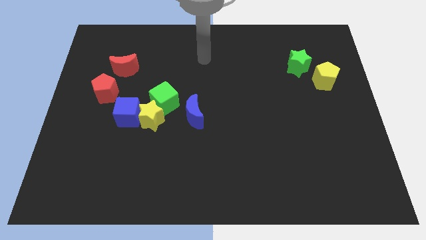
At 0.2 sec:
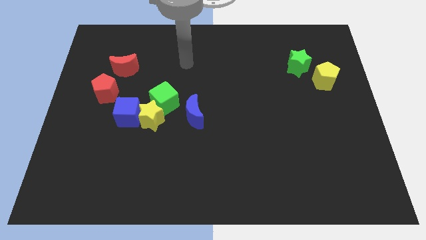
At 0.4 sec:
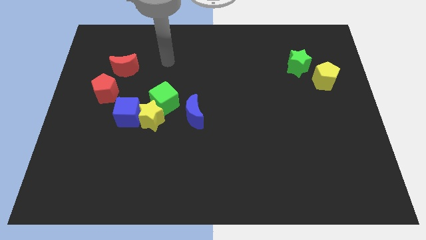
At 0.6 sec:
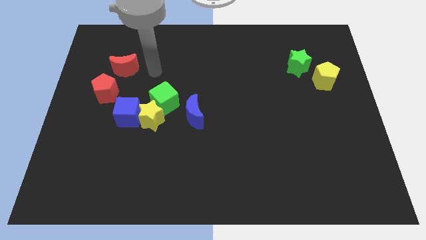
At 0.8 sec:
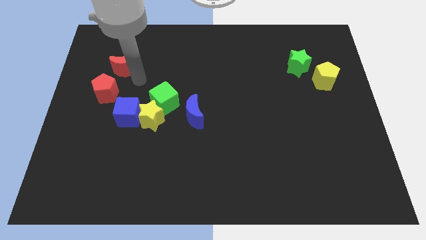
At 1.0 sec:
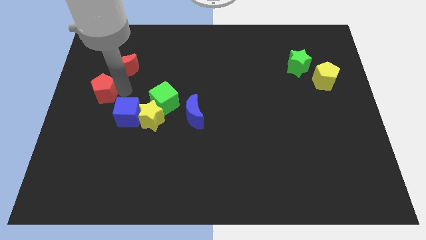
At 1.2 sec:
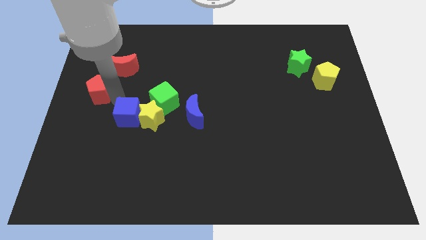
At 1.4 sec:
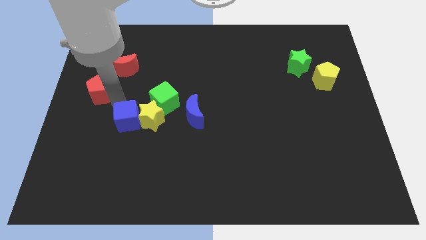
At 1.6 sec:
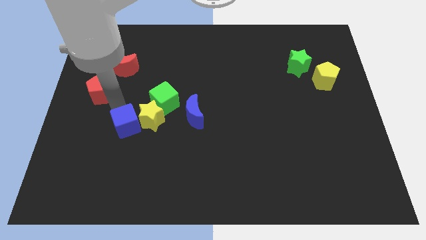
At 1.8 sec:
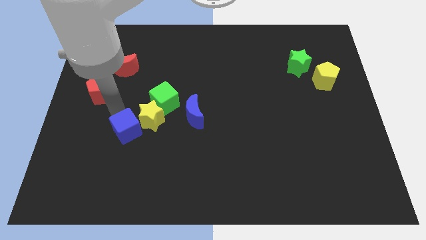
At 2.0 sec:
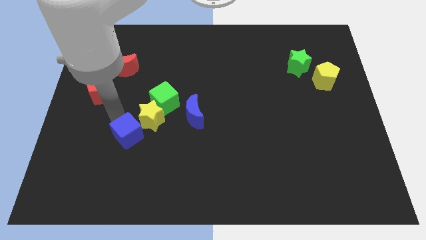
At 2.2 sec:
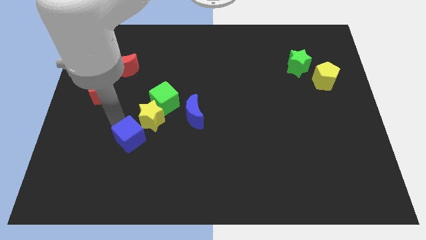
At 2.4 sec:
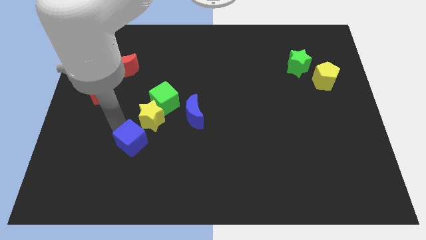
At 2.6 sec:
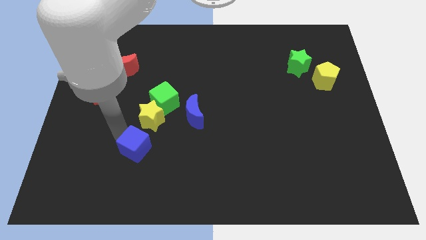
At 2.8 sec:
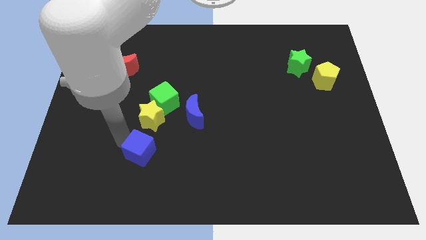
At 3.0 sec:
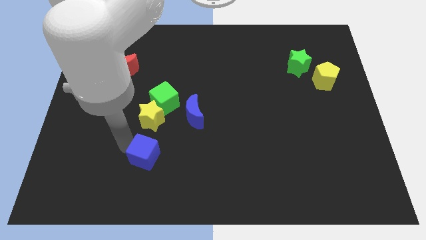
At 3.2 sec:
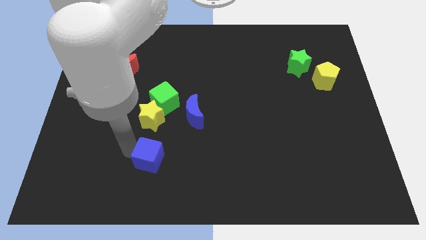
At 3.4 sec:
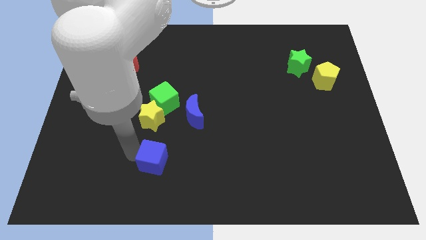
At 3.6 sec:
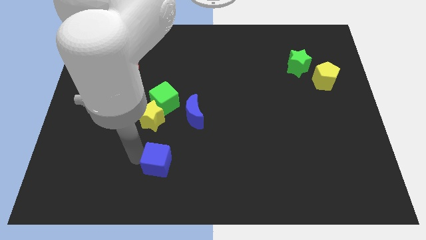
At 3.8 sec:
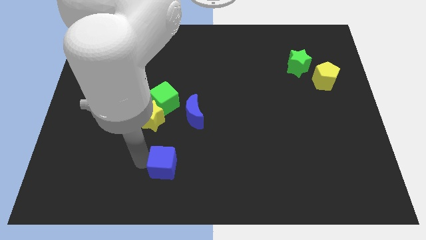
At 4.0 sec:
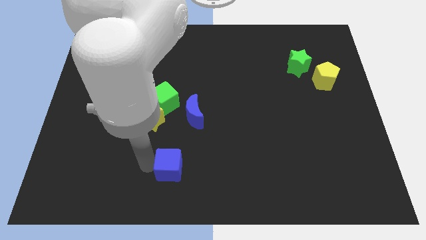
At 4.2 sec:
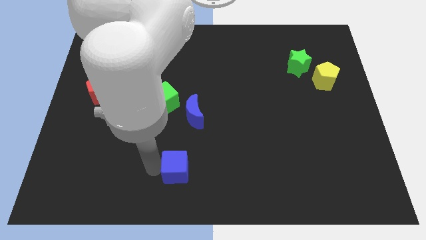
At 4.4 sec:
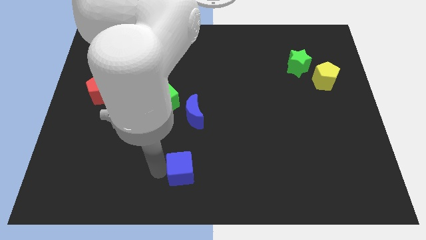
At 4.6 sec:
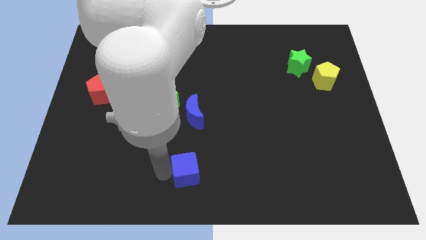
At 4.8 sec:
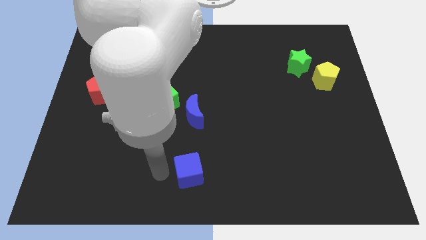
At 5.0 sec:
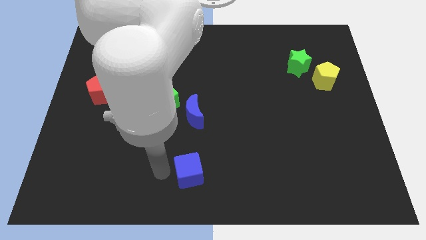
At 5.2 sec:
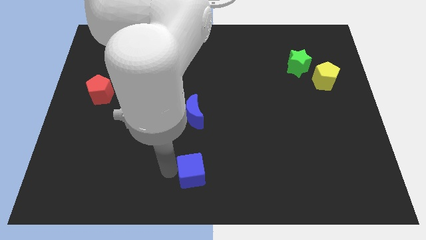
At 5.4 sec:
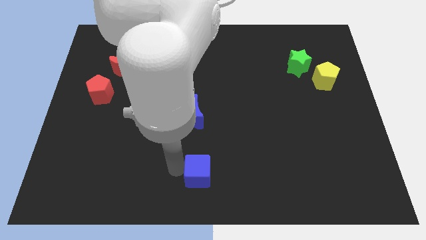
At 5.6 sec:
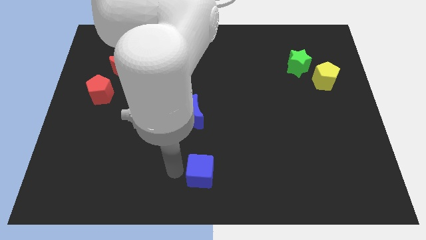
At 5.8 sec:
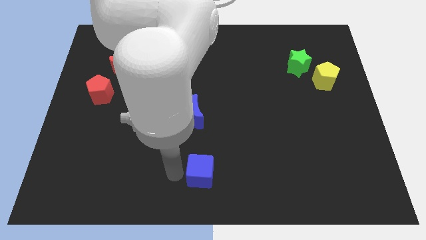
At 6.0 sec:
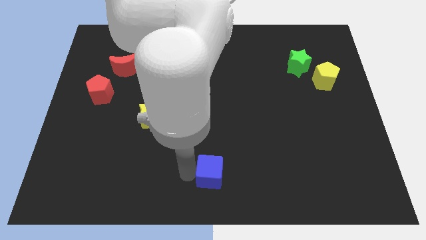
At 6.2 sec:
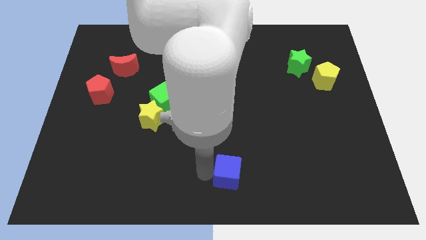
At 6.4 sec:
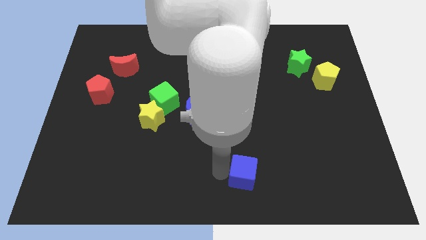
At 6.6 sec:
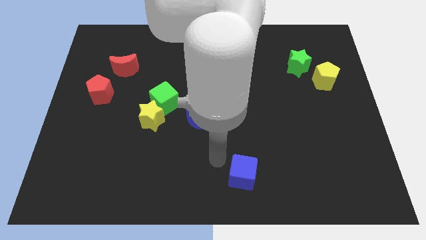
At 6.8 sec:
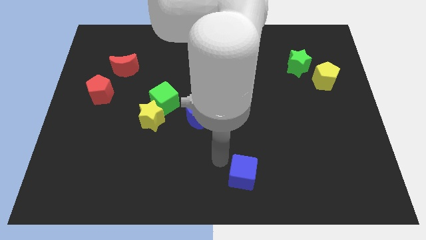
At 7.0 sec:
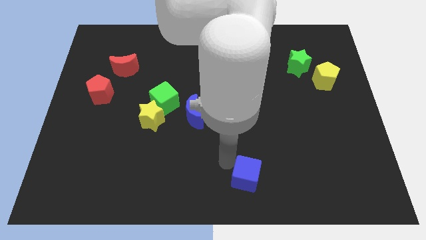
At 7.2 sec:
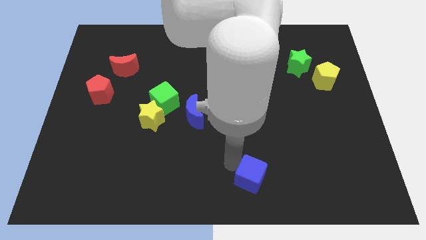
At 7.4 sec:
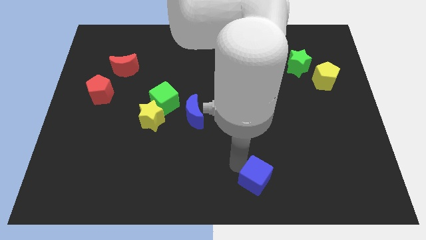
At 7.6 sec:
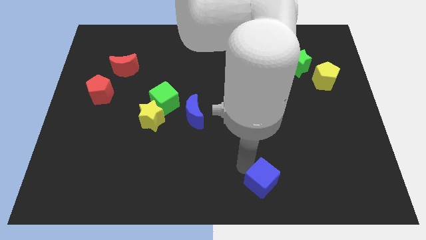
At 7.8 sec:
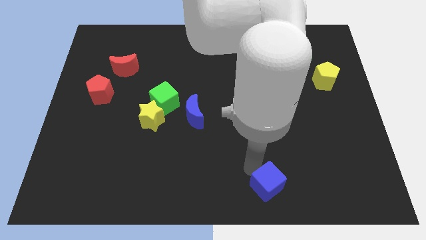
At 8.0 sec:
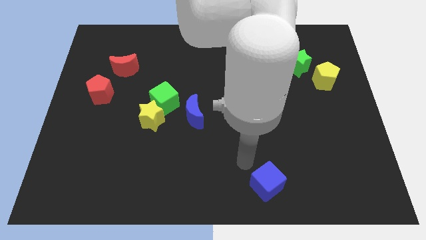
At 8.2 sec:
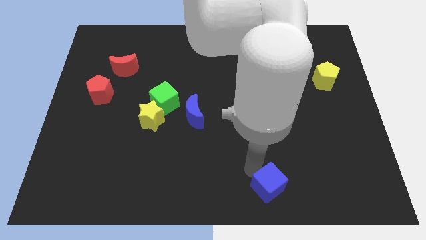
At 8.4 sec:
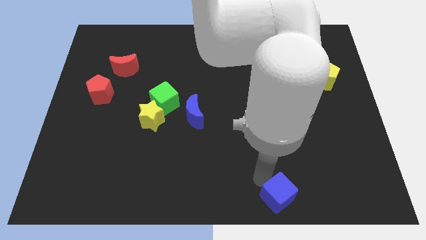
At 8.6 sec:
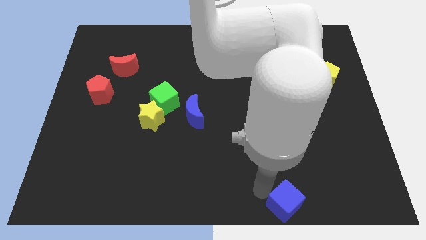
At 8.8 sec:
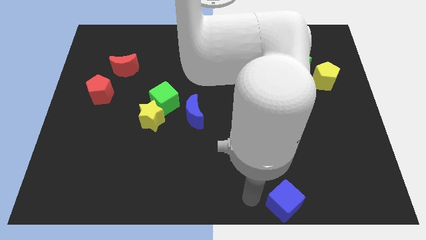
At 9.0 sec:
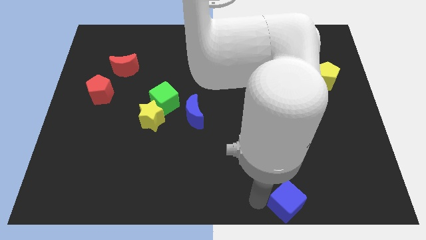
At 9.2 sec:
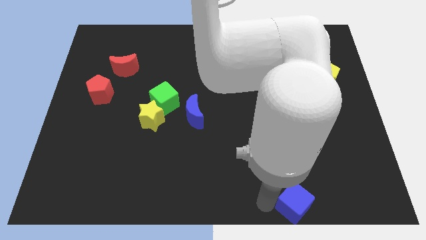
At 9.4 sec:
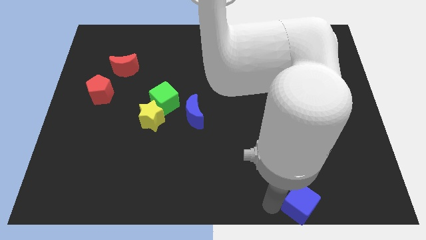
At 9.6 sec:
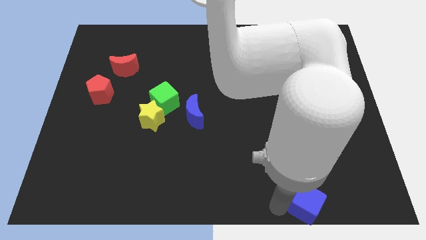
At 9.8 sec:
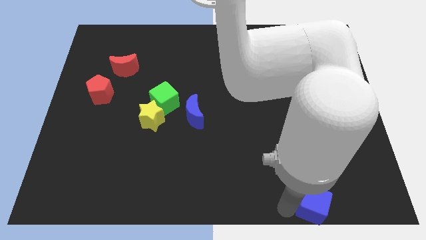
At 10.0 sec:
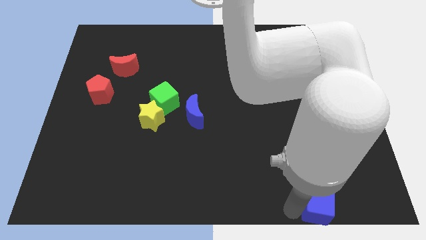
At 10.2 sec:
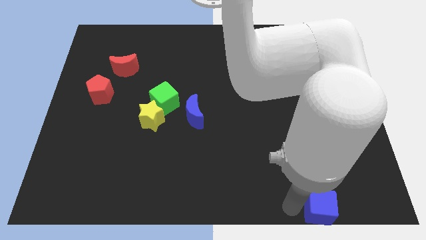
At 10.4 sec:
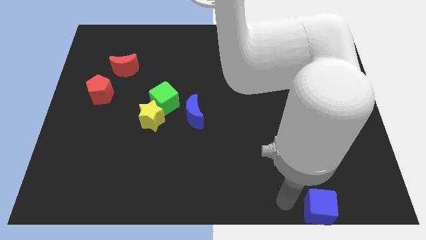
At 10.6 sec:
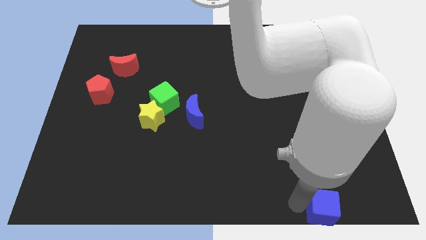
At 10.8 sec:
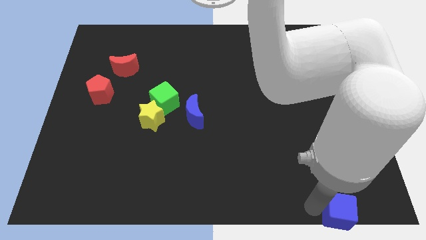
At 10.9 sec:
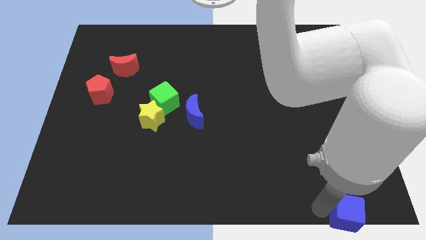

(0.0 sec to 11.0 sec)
slide the blue cube to the bottom right corner
